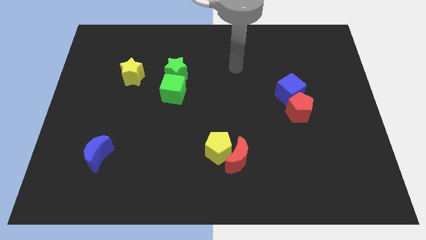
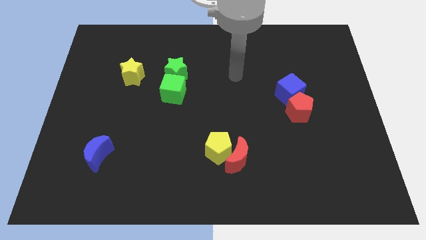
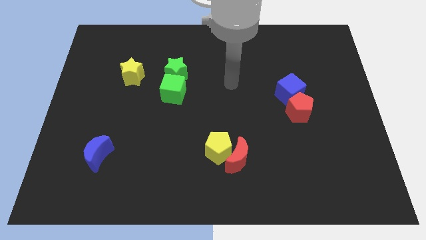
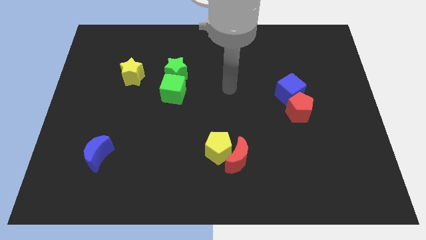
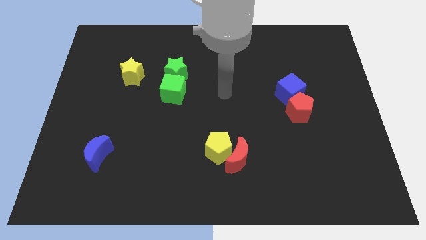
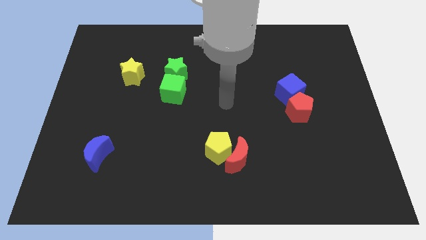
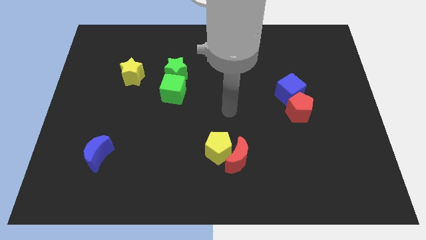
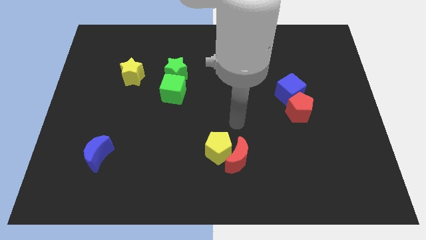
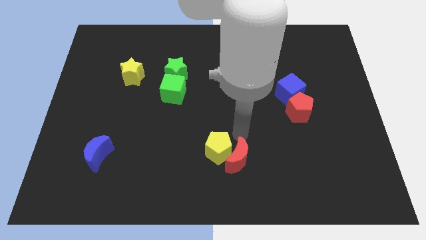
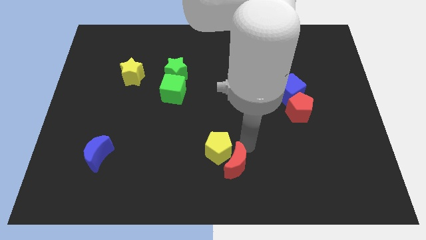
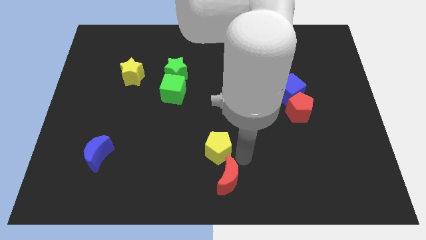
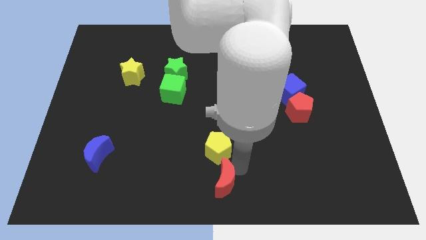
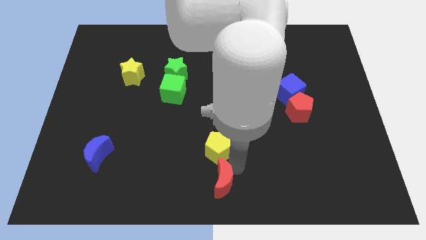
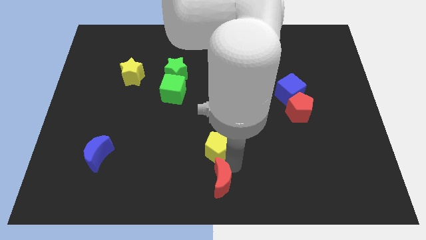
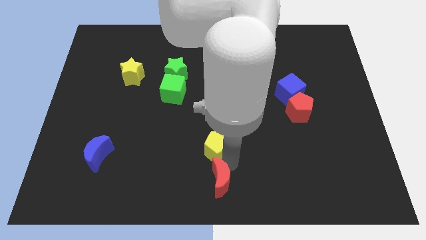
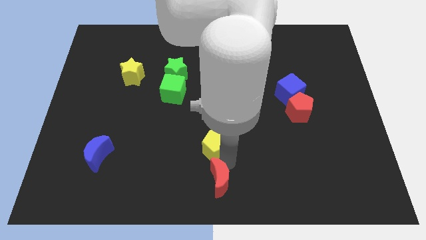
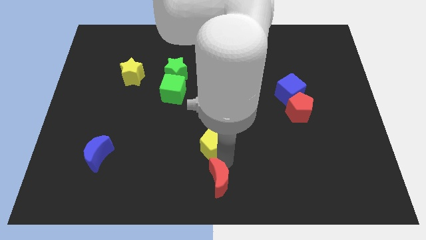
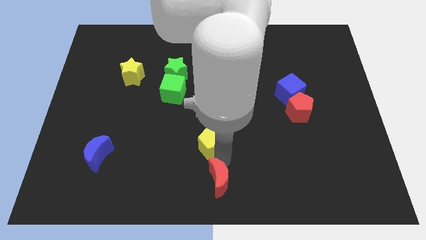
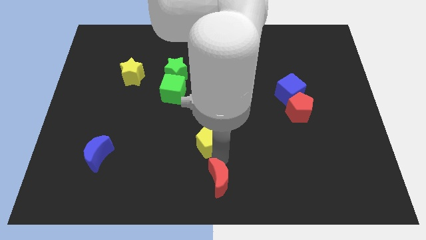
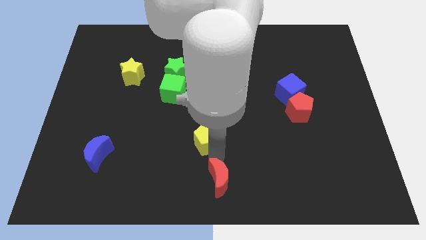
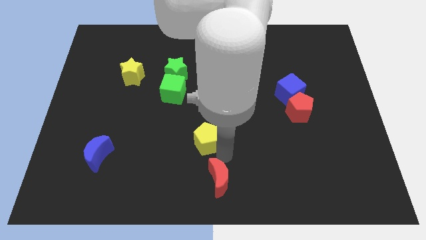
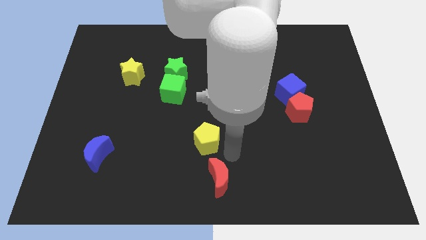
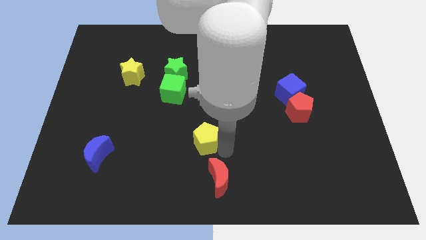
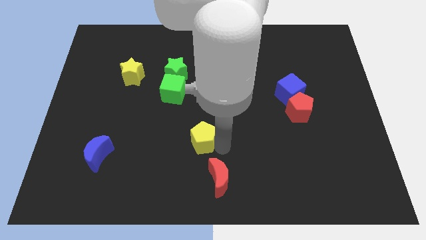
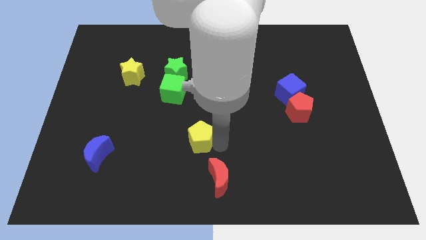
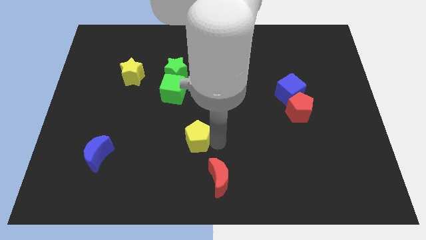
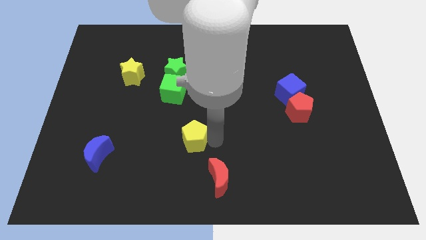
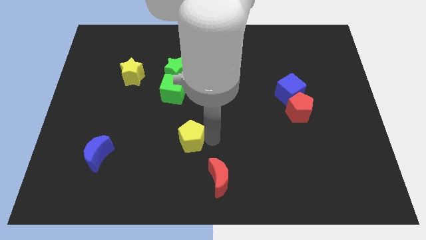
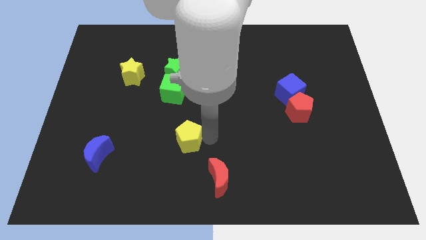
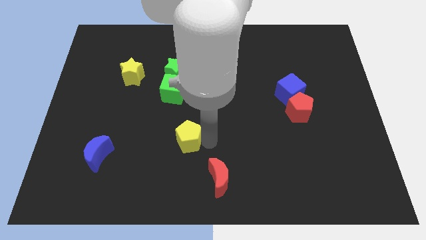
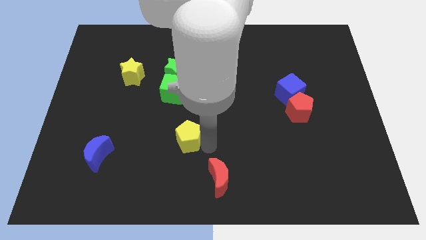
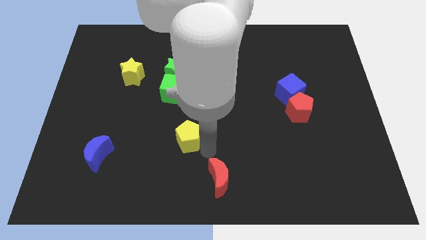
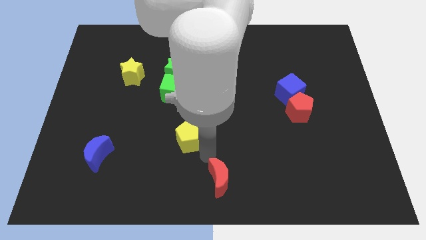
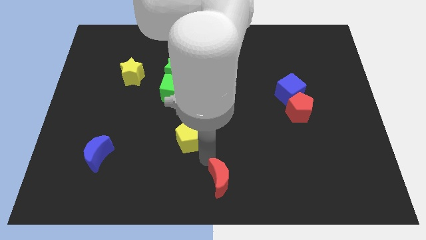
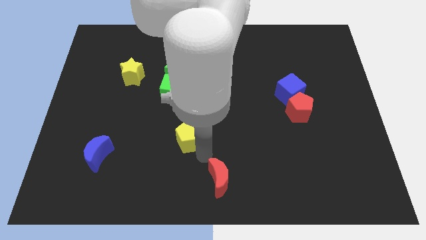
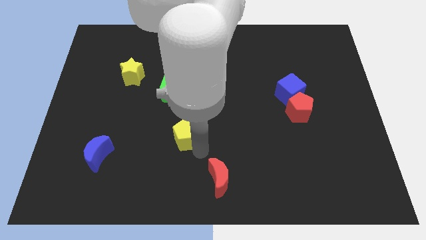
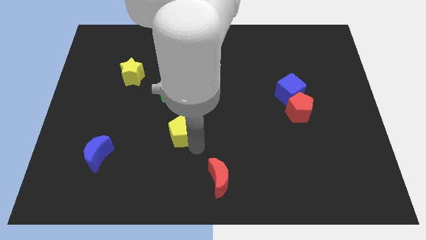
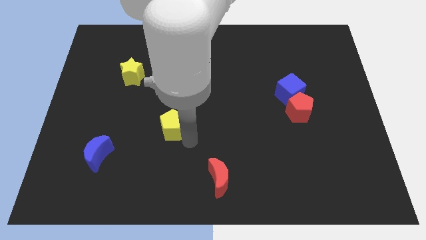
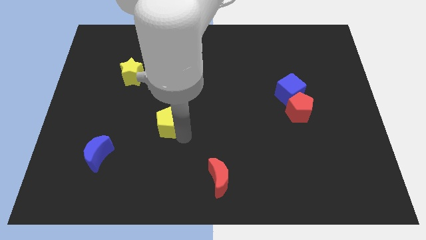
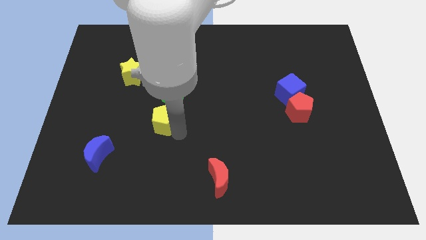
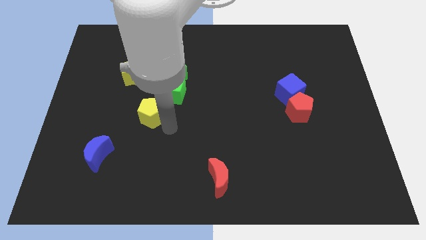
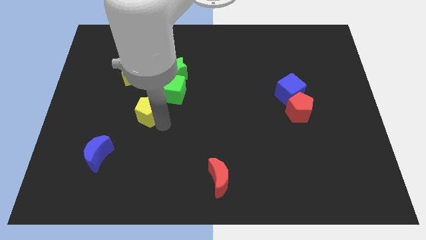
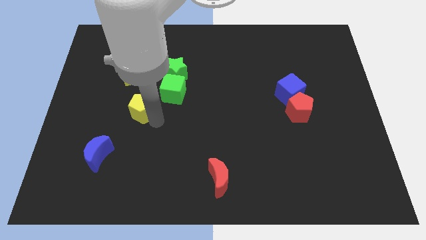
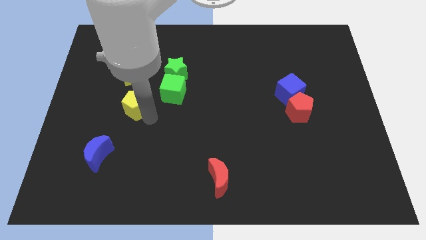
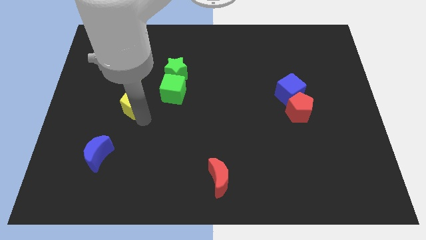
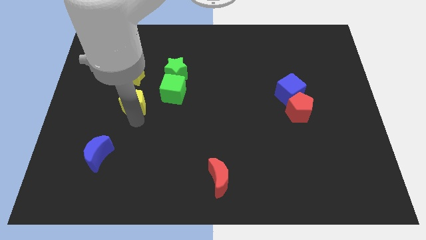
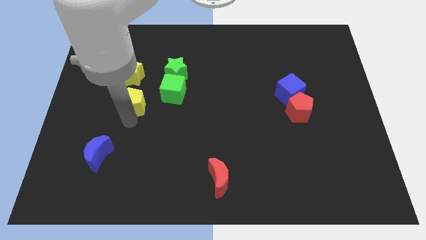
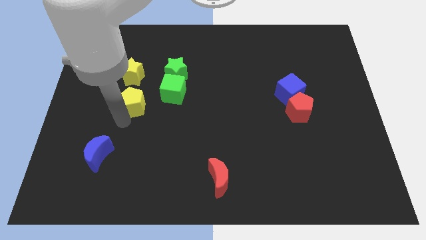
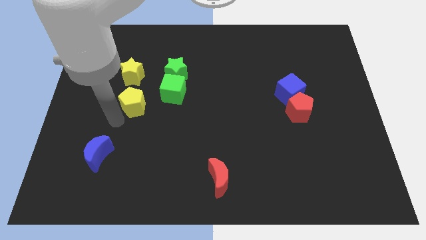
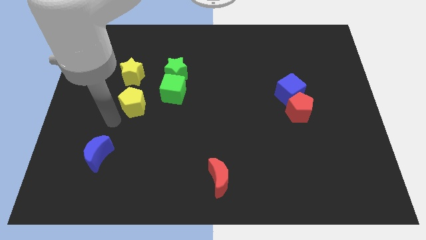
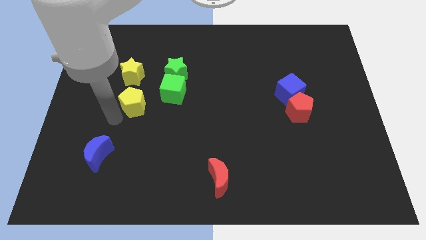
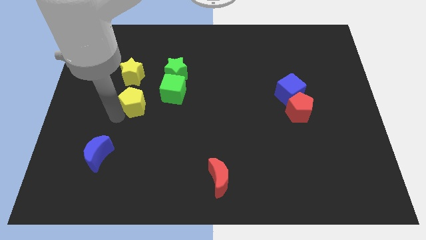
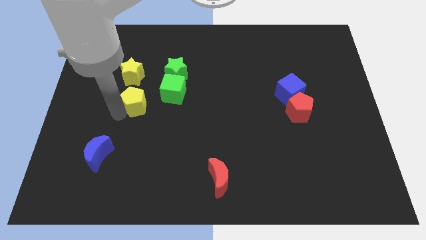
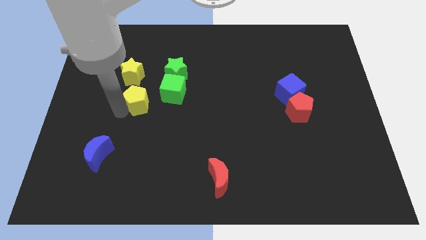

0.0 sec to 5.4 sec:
move the yellow pentagon to the bottom left side of the green star

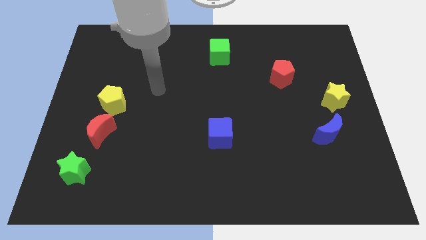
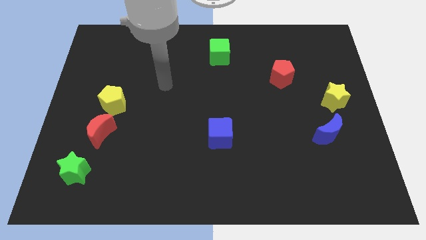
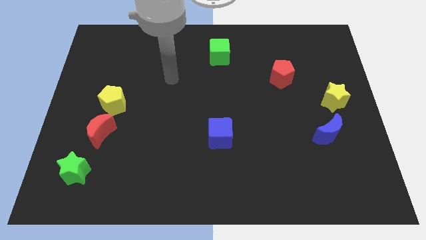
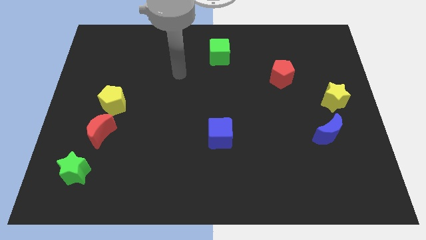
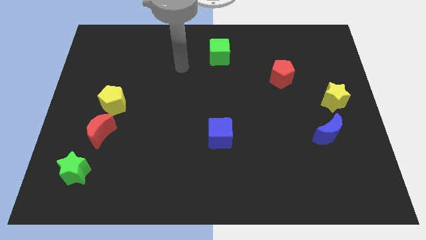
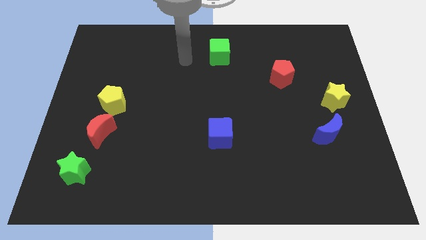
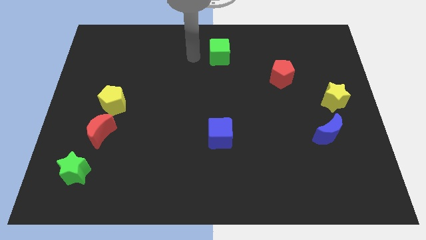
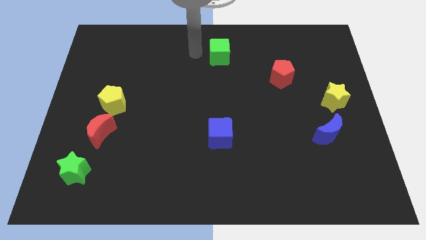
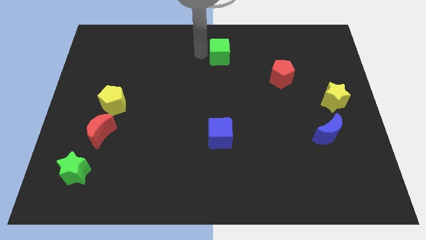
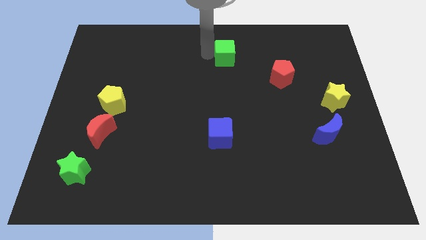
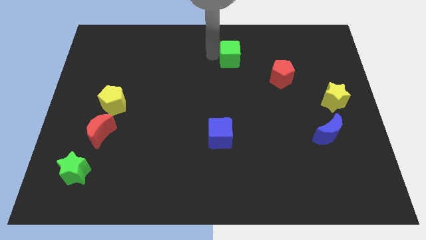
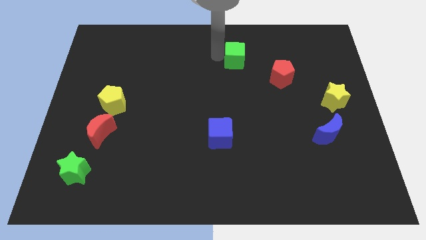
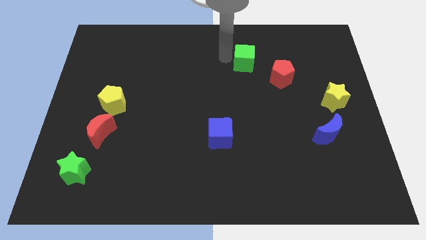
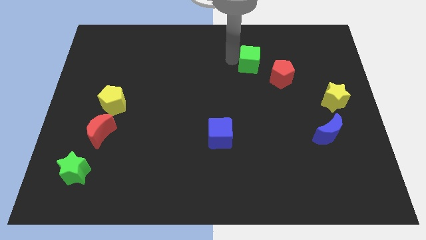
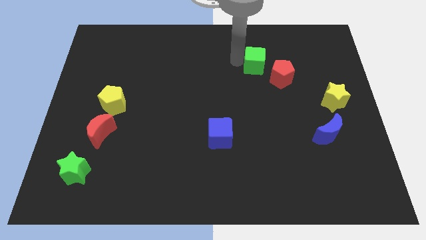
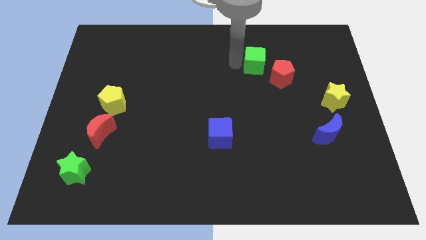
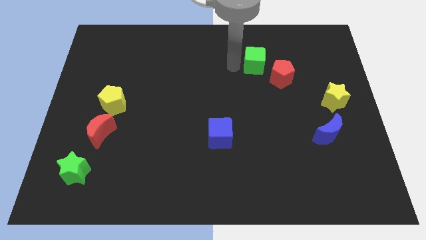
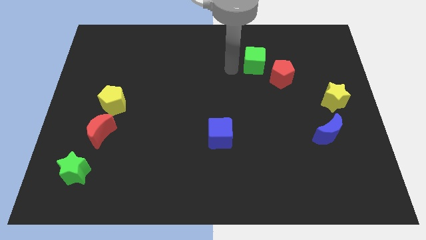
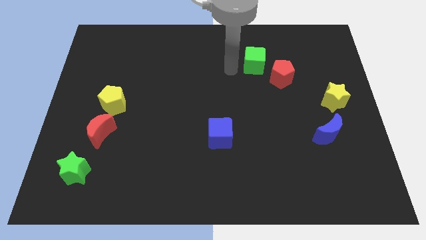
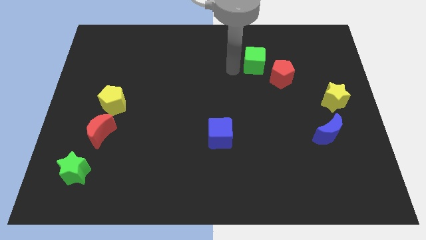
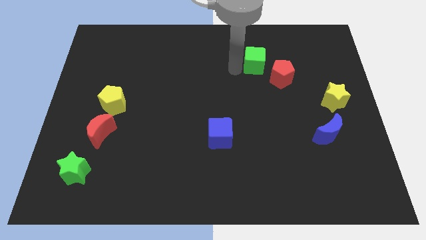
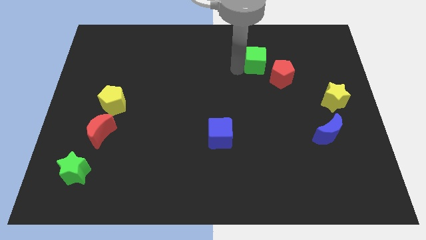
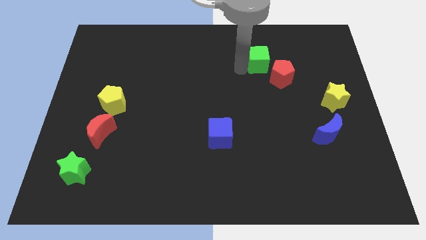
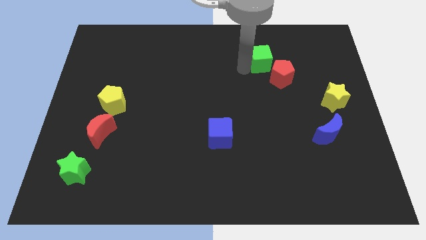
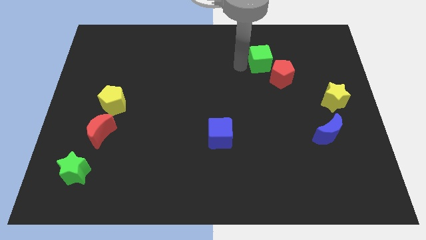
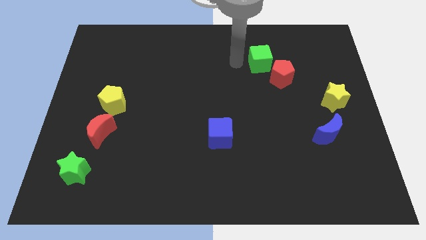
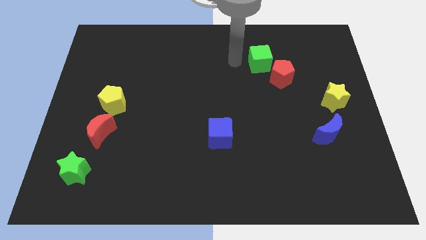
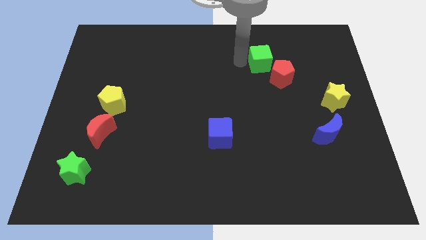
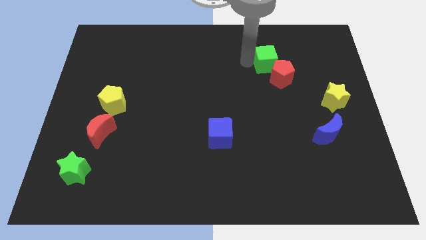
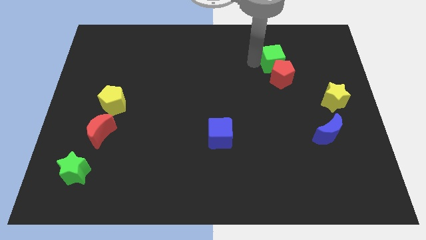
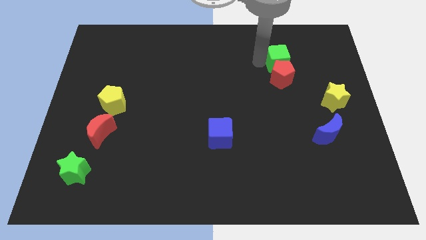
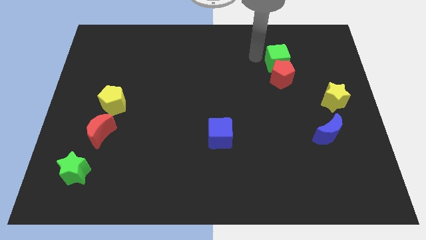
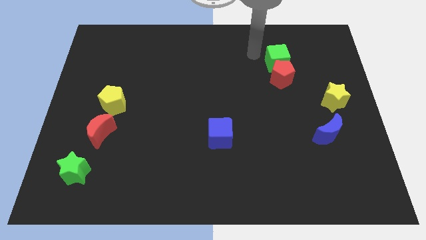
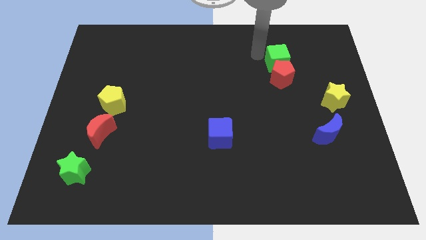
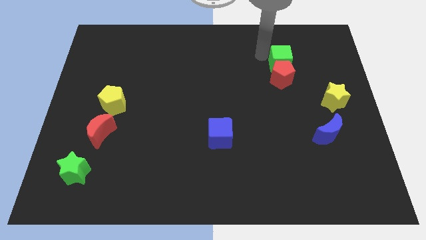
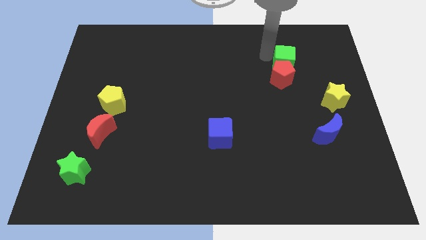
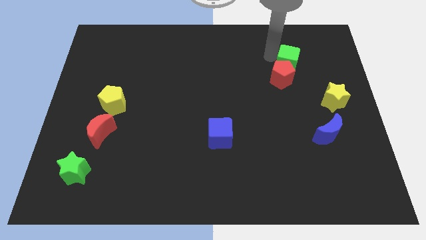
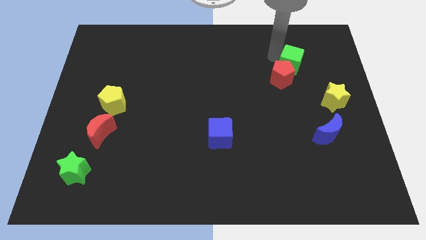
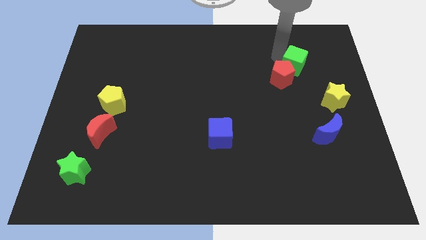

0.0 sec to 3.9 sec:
put the green cube to the right side of the red pentagon
